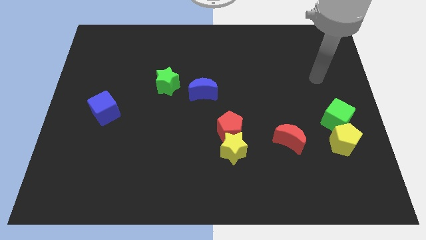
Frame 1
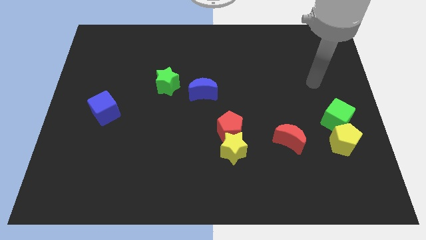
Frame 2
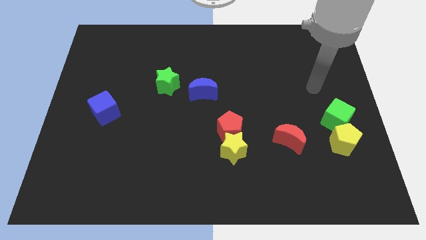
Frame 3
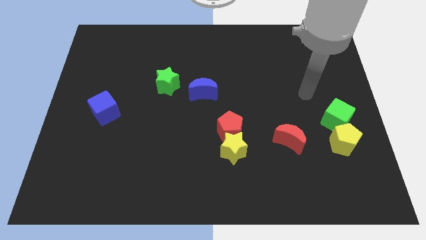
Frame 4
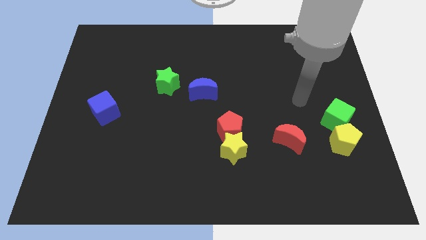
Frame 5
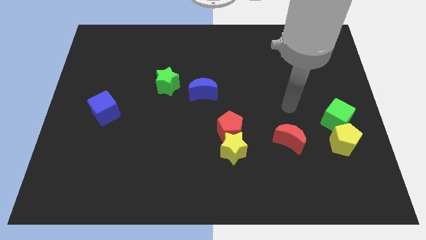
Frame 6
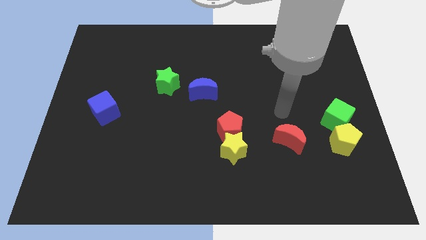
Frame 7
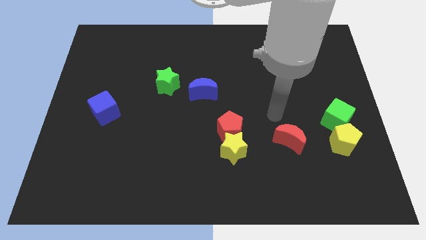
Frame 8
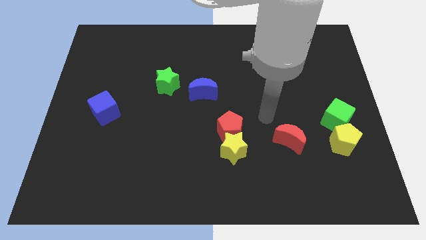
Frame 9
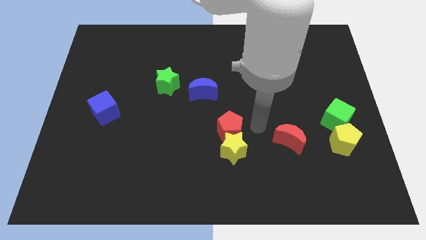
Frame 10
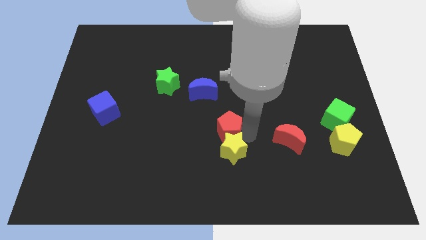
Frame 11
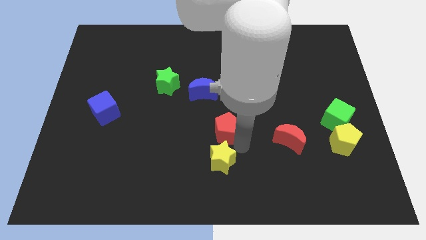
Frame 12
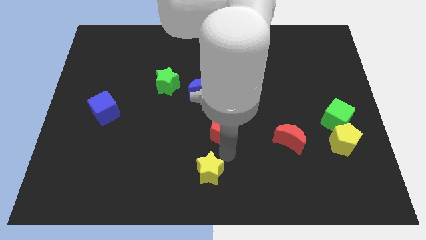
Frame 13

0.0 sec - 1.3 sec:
move the red pentagon away from the yellow star

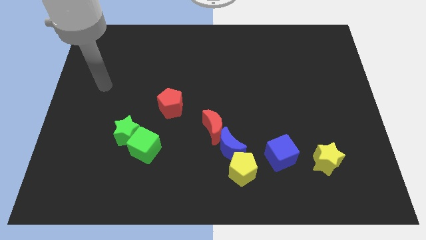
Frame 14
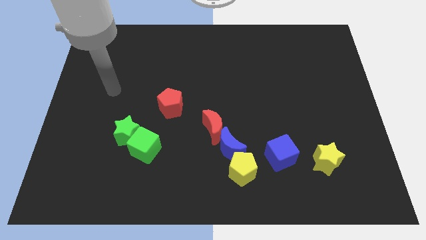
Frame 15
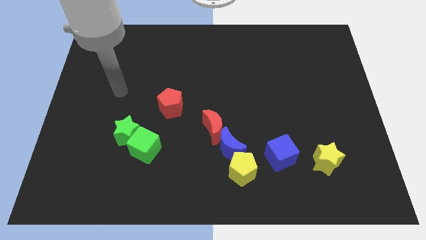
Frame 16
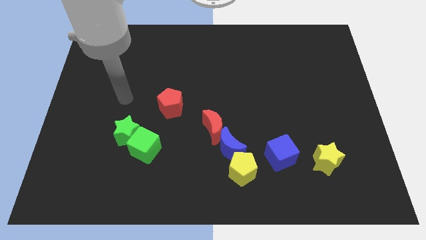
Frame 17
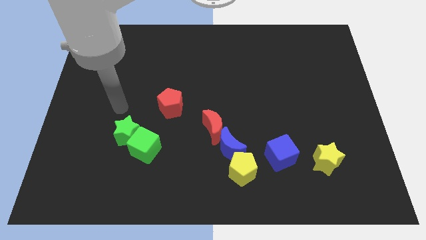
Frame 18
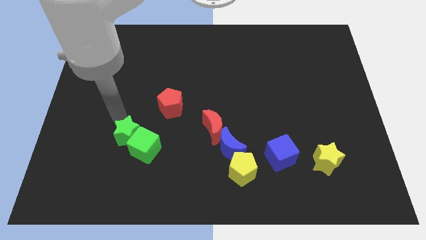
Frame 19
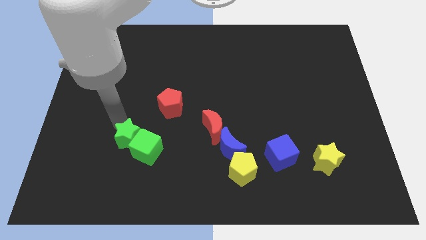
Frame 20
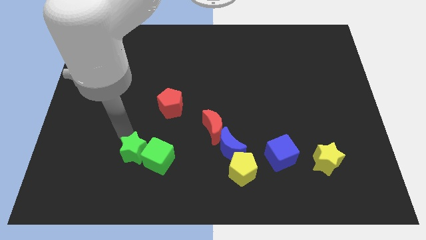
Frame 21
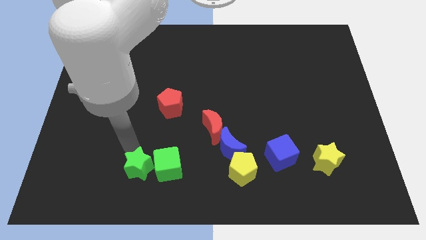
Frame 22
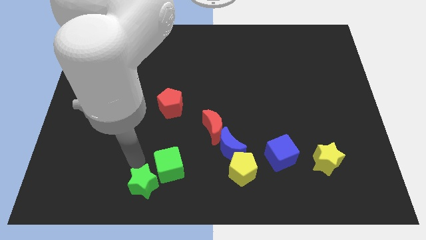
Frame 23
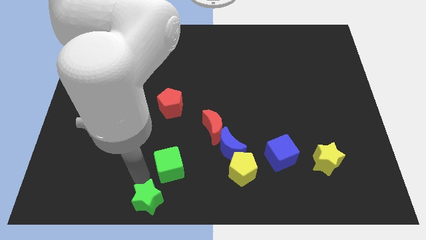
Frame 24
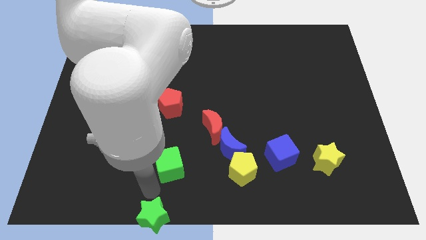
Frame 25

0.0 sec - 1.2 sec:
move the green cube away from the green star

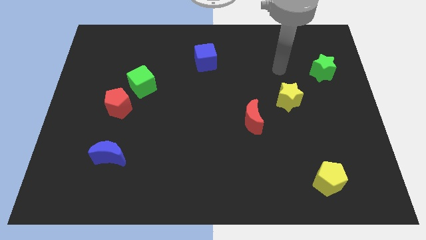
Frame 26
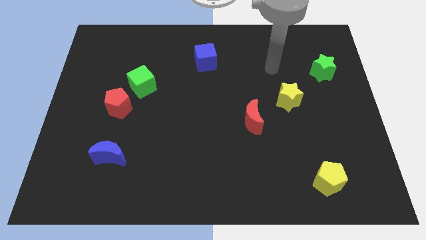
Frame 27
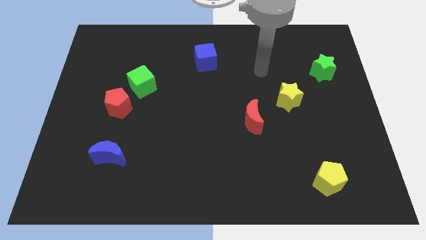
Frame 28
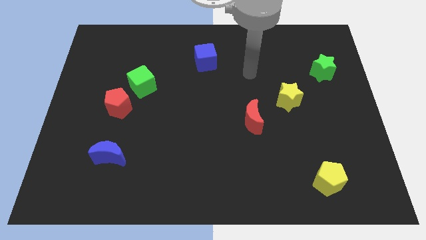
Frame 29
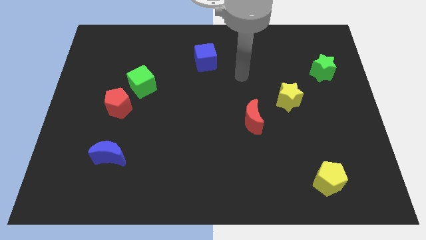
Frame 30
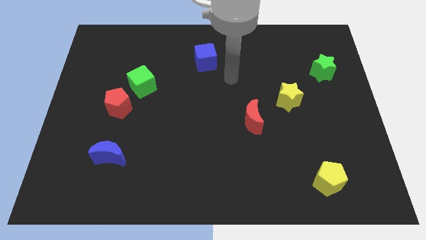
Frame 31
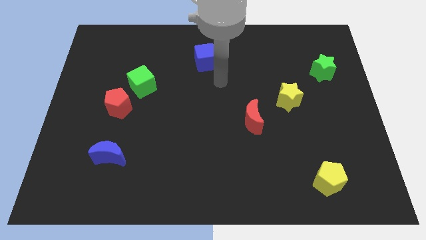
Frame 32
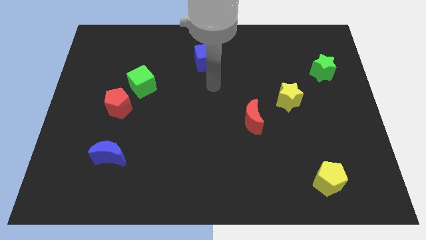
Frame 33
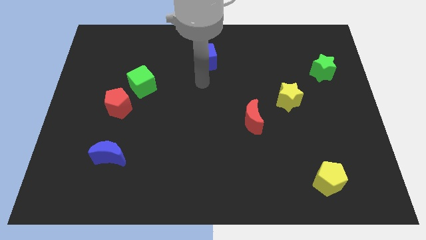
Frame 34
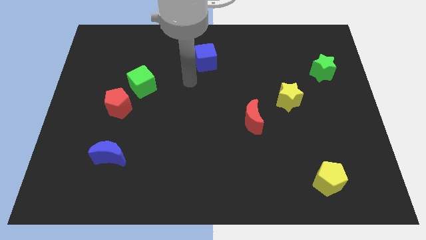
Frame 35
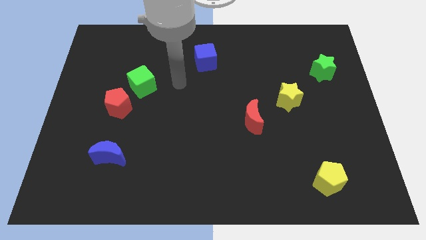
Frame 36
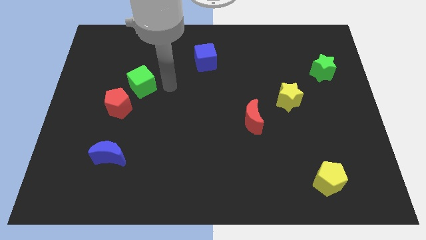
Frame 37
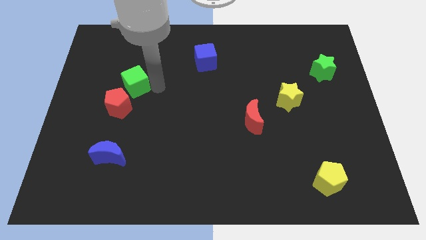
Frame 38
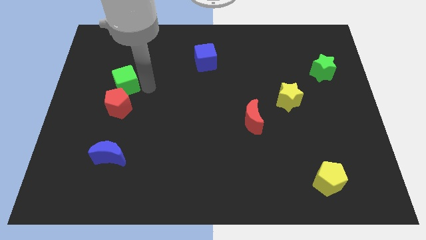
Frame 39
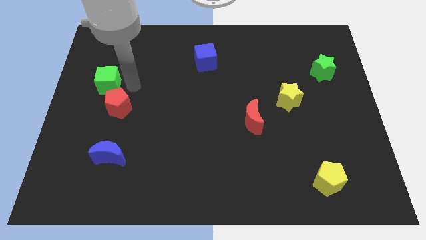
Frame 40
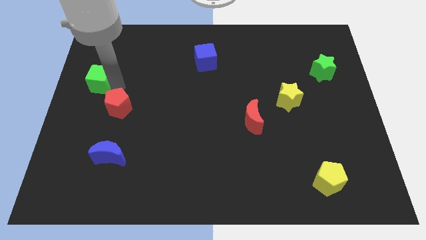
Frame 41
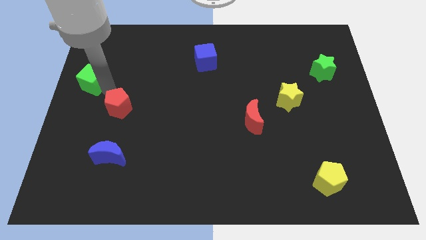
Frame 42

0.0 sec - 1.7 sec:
pull the red pentagon apart from the green cube

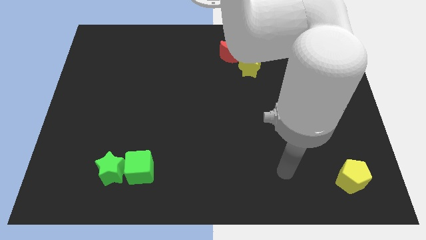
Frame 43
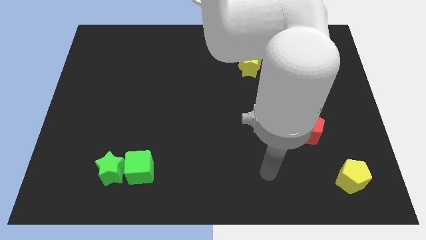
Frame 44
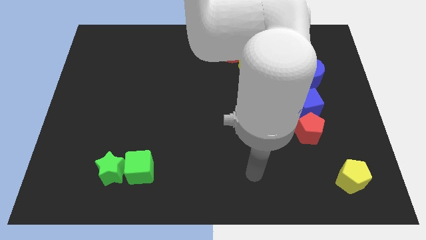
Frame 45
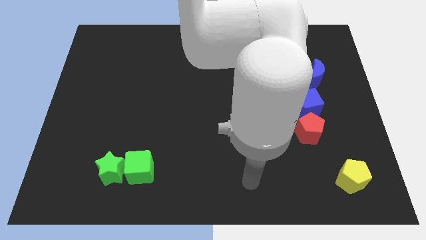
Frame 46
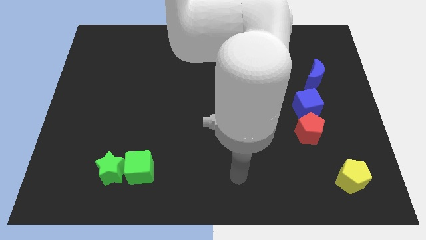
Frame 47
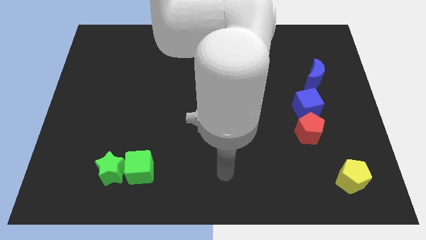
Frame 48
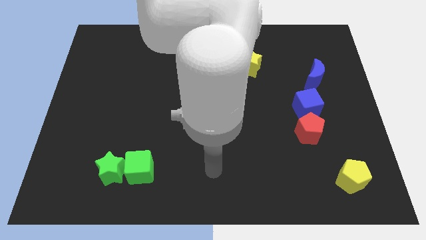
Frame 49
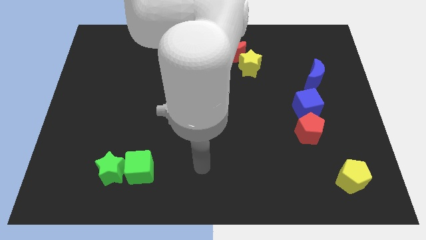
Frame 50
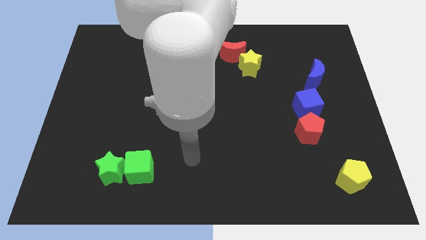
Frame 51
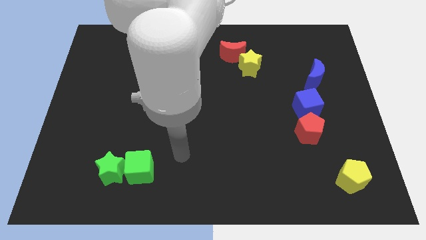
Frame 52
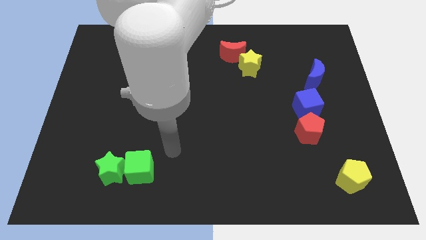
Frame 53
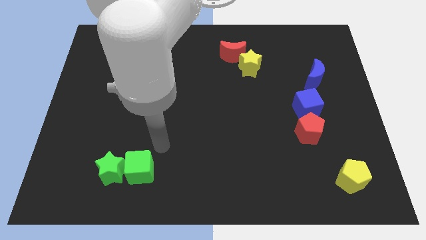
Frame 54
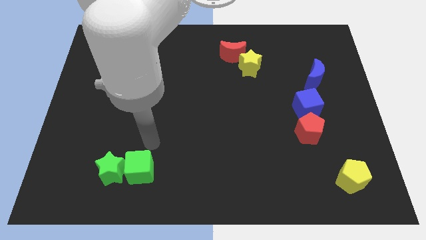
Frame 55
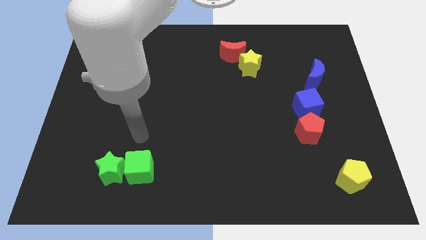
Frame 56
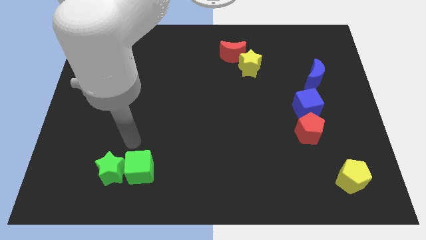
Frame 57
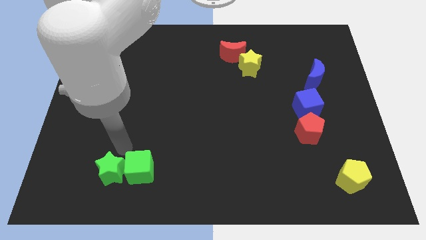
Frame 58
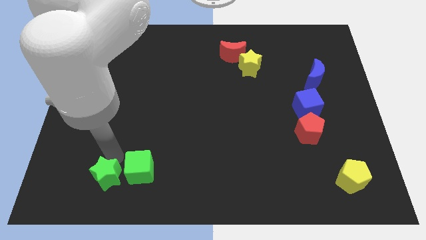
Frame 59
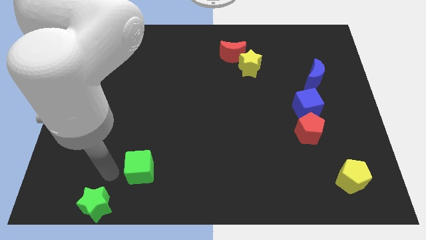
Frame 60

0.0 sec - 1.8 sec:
pull the green cube apart from the green star

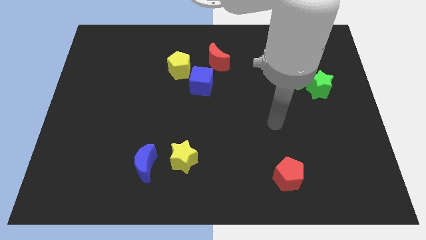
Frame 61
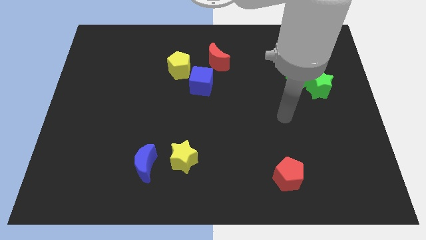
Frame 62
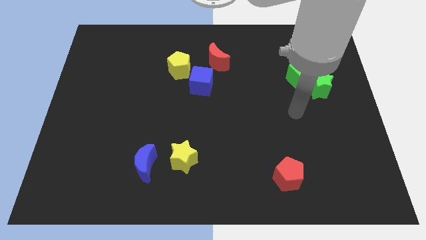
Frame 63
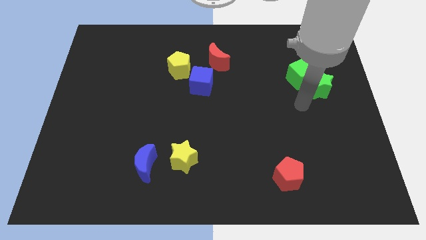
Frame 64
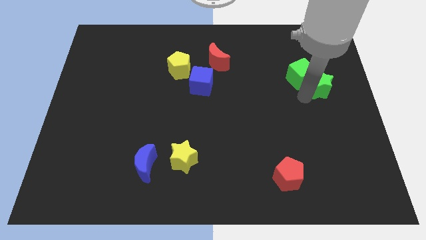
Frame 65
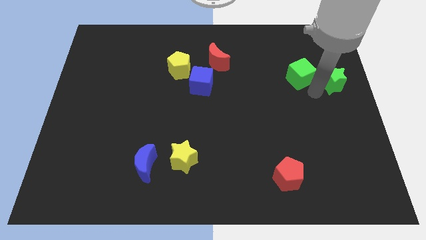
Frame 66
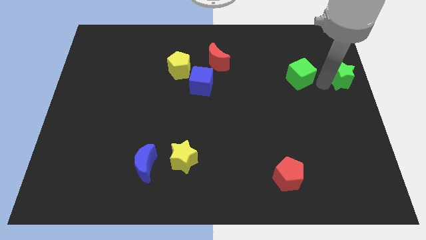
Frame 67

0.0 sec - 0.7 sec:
separate the green cube from the green star

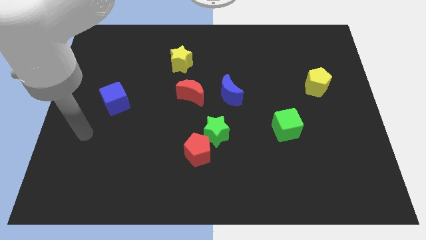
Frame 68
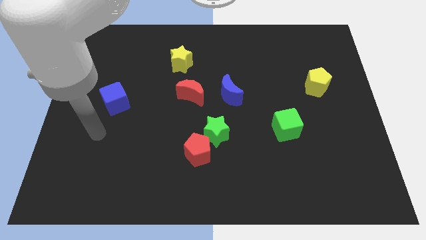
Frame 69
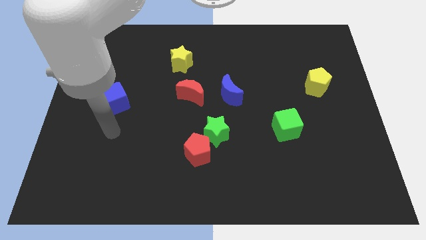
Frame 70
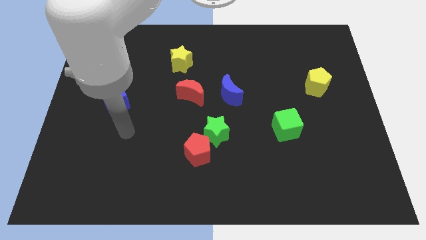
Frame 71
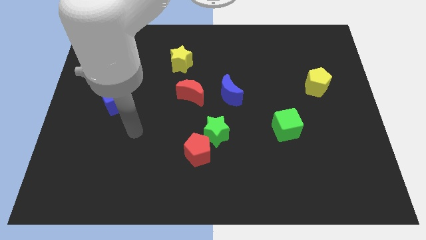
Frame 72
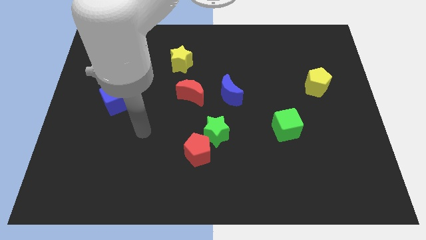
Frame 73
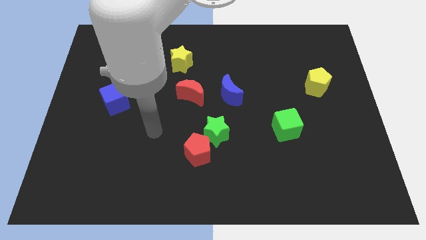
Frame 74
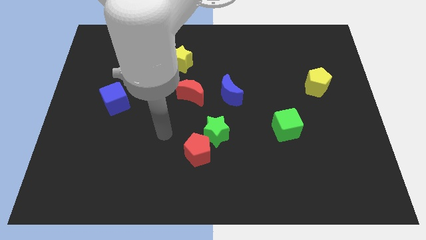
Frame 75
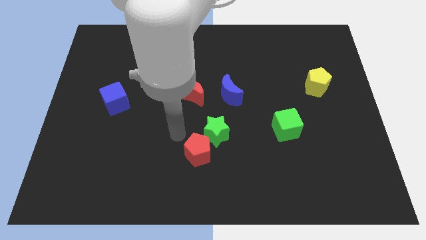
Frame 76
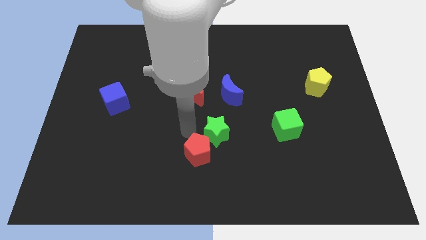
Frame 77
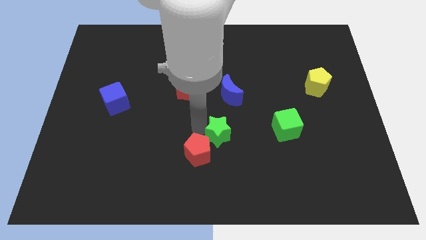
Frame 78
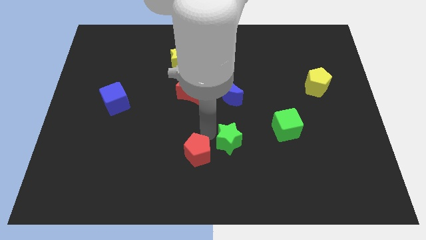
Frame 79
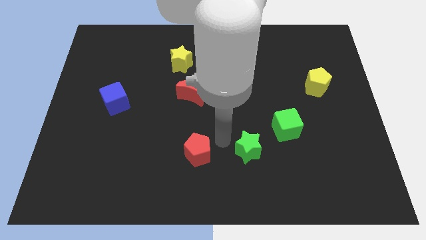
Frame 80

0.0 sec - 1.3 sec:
separate the red pentagon from the green star

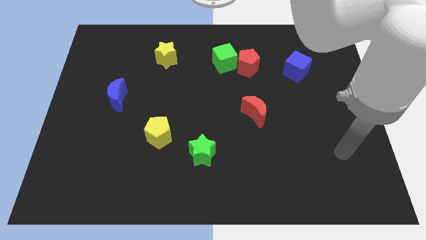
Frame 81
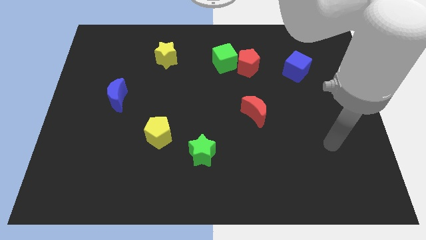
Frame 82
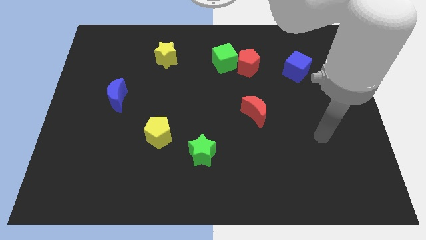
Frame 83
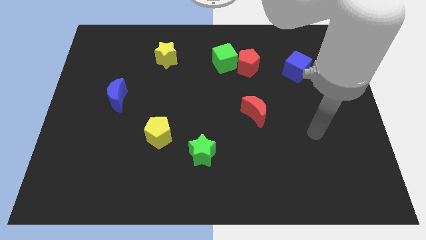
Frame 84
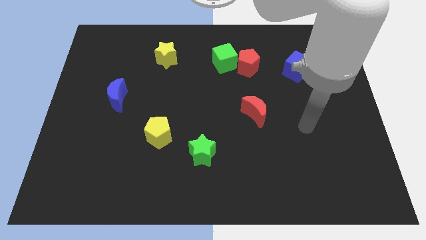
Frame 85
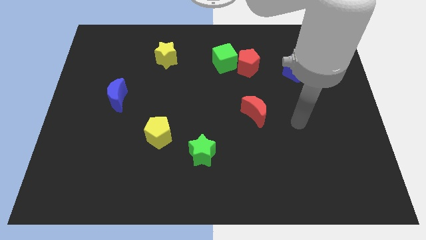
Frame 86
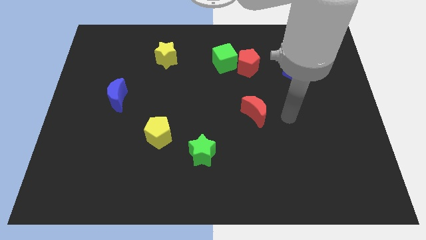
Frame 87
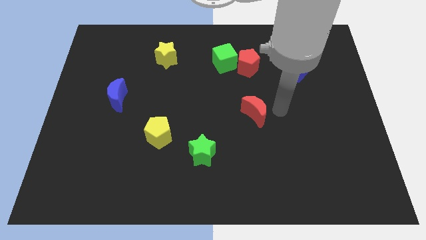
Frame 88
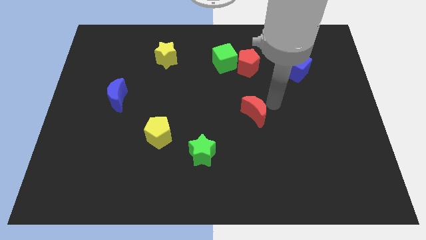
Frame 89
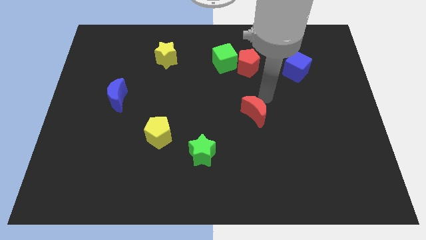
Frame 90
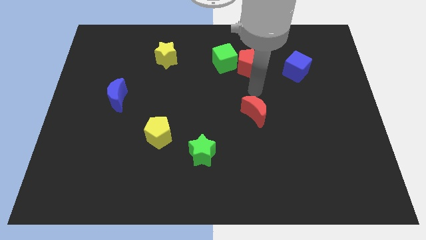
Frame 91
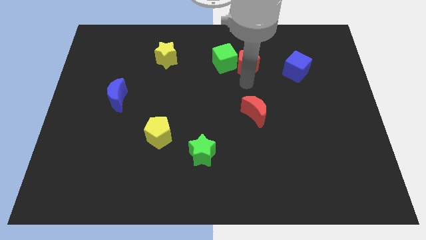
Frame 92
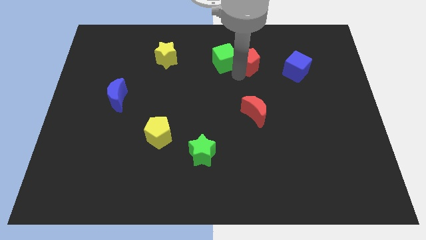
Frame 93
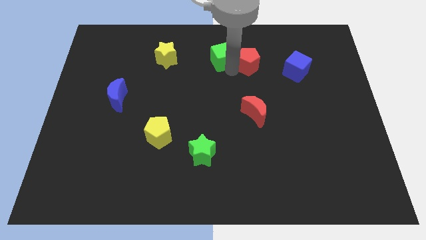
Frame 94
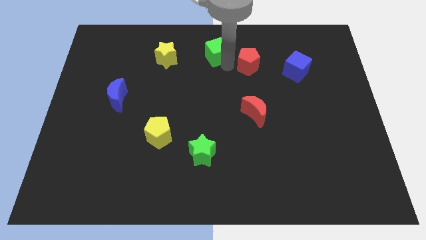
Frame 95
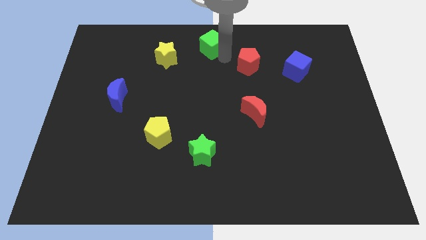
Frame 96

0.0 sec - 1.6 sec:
separate the red pentagon from the green cube
